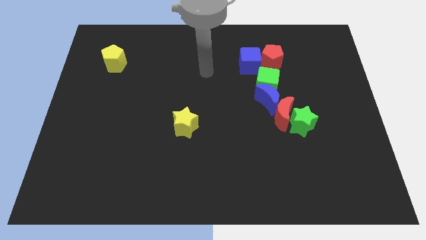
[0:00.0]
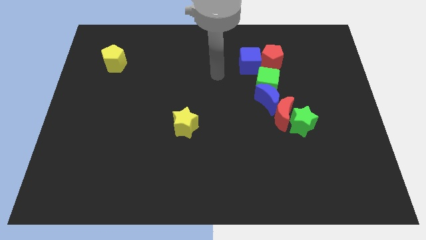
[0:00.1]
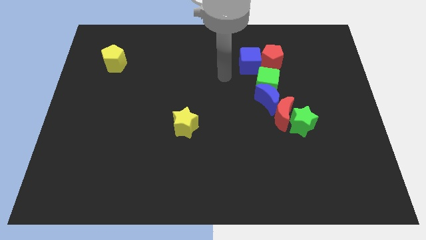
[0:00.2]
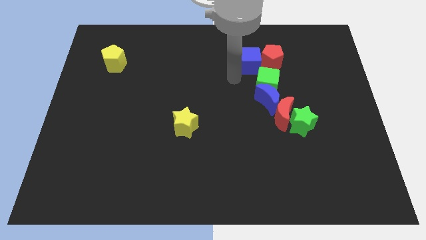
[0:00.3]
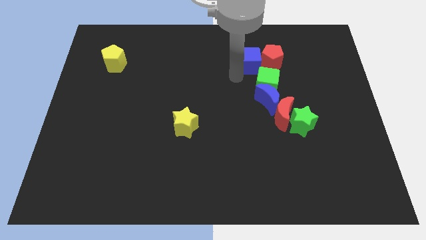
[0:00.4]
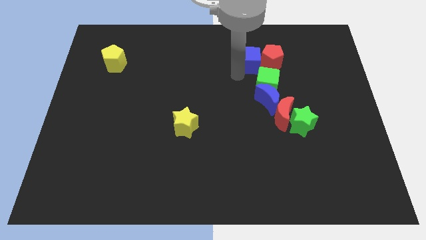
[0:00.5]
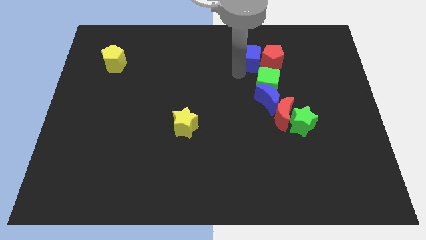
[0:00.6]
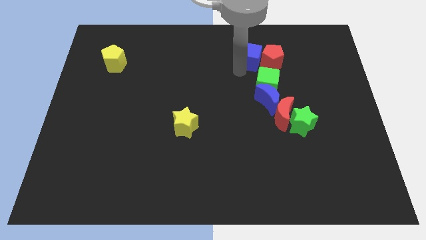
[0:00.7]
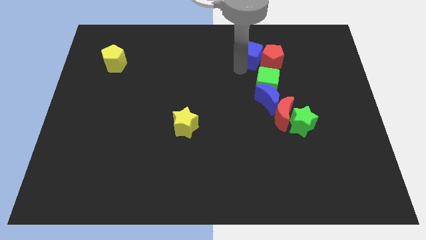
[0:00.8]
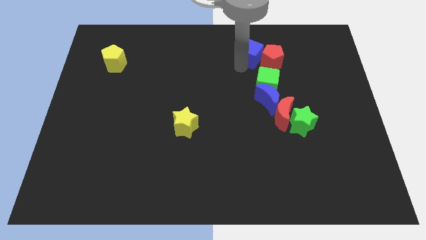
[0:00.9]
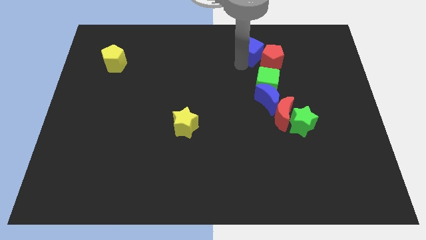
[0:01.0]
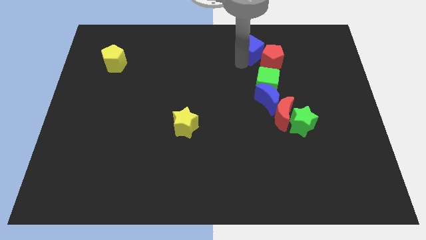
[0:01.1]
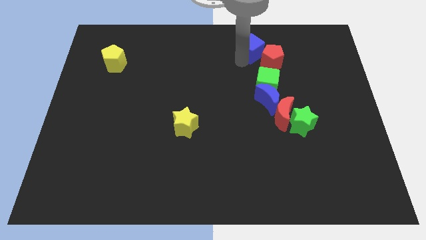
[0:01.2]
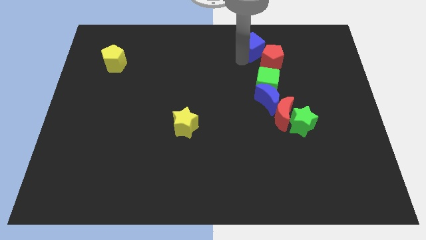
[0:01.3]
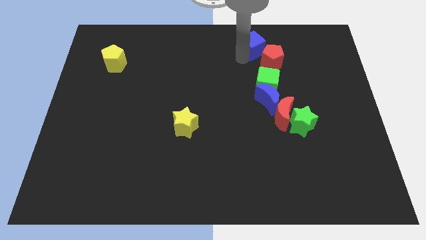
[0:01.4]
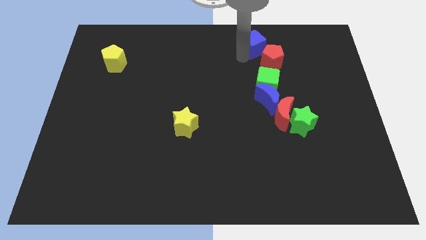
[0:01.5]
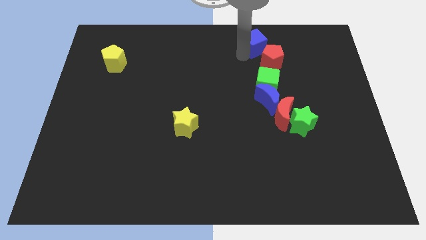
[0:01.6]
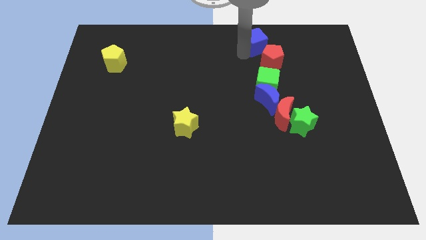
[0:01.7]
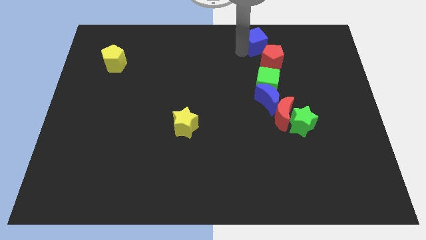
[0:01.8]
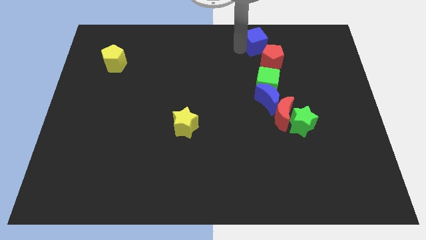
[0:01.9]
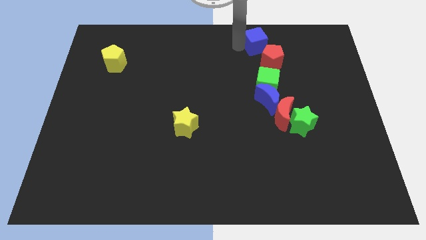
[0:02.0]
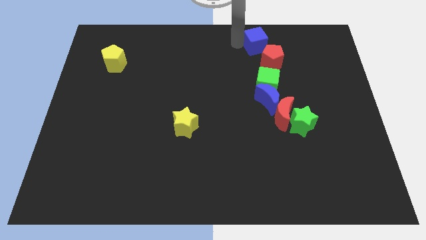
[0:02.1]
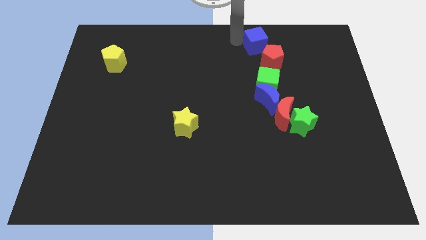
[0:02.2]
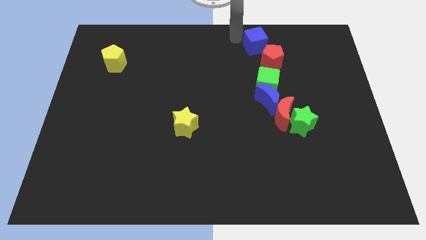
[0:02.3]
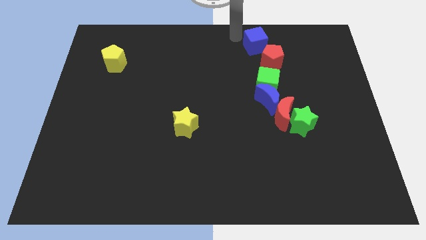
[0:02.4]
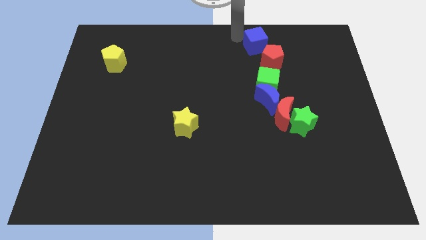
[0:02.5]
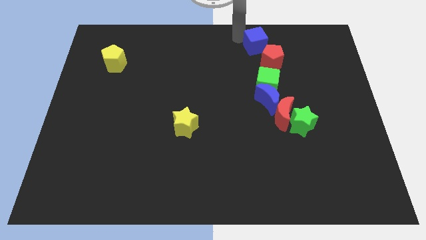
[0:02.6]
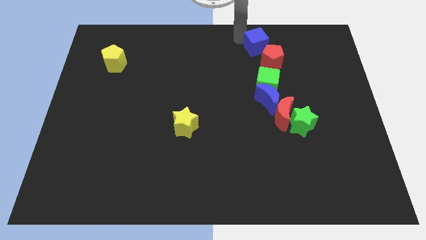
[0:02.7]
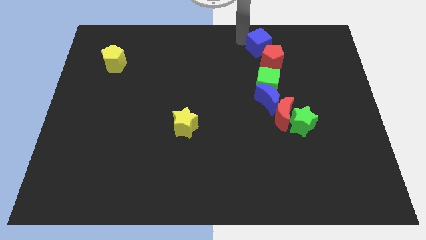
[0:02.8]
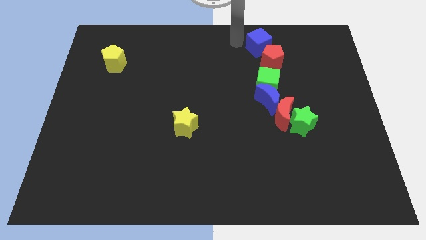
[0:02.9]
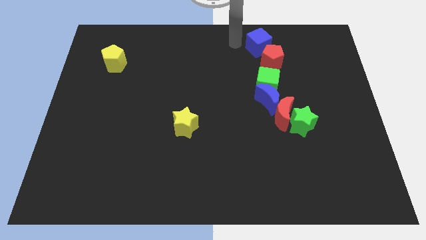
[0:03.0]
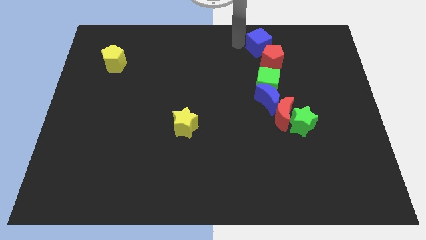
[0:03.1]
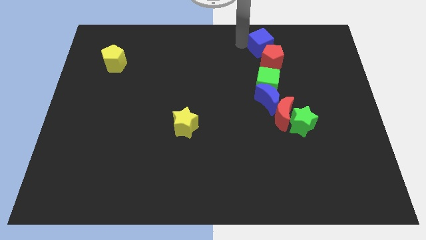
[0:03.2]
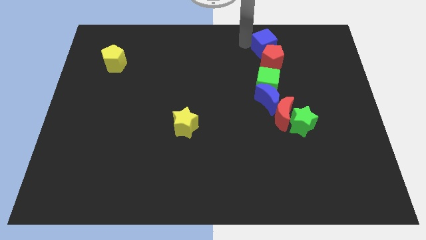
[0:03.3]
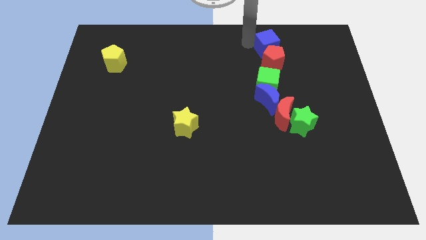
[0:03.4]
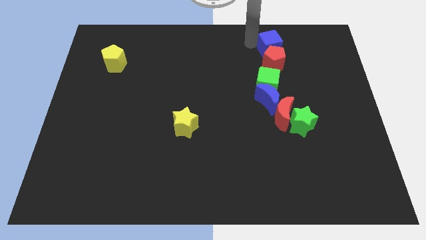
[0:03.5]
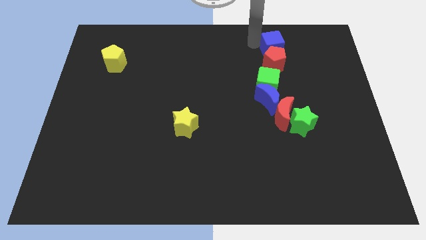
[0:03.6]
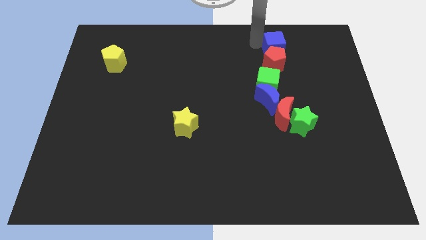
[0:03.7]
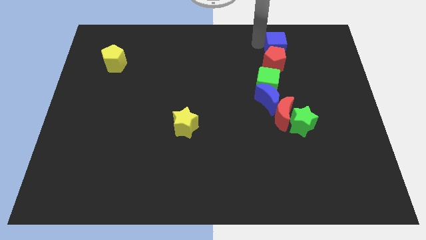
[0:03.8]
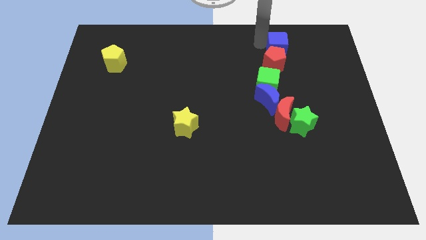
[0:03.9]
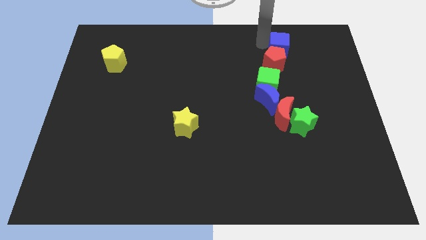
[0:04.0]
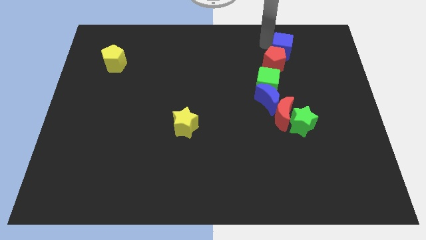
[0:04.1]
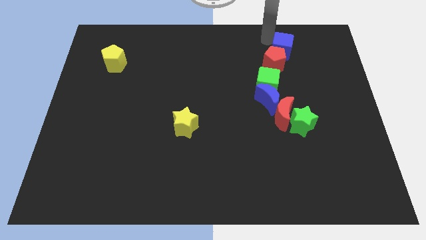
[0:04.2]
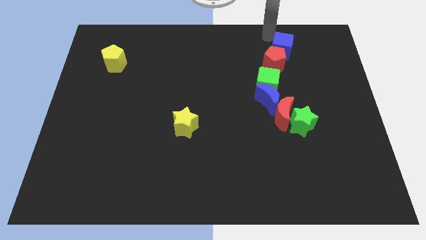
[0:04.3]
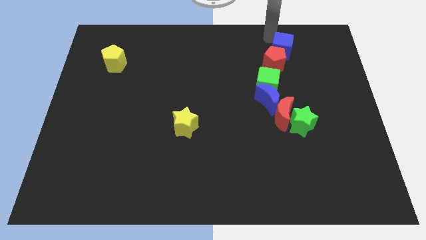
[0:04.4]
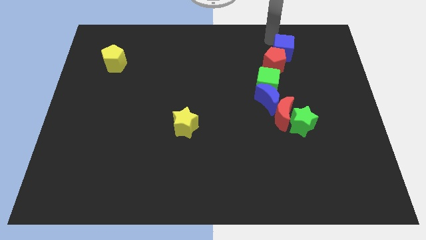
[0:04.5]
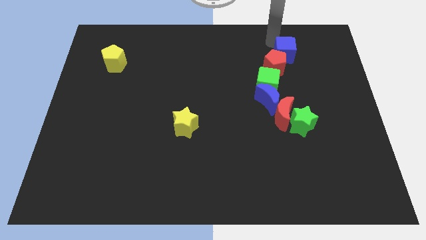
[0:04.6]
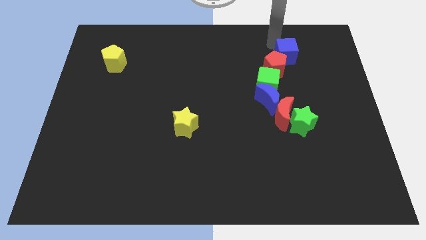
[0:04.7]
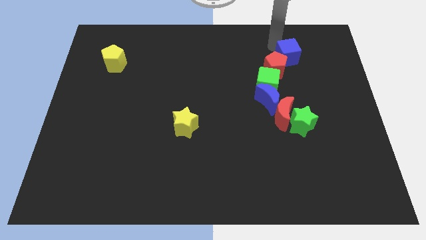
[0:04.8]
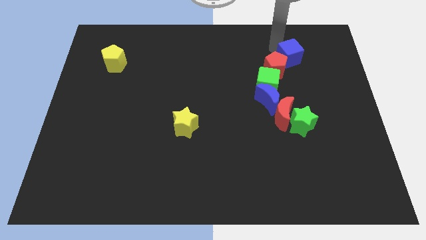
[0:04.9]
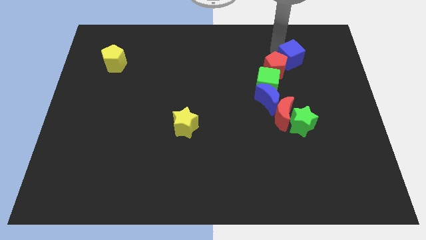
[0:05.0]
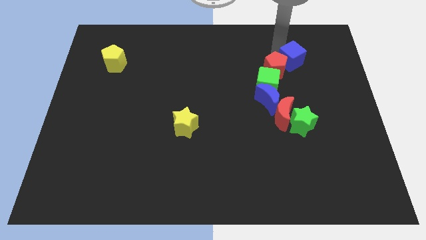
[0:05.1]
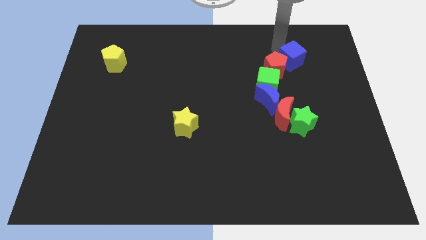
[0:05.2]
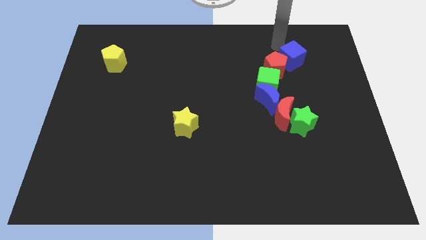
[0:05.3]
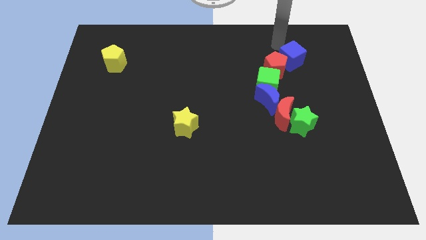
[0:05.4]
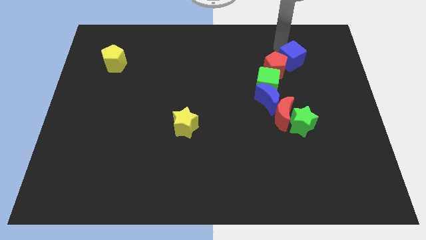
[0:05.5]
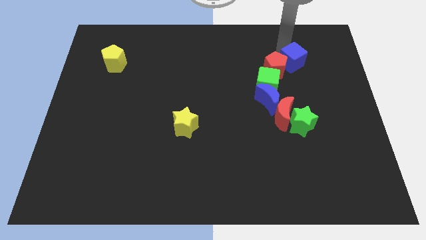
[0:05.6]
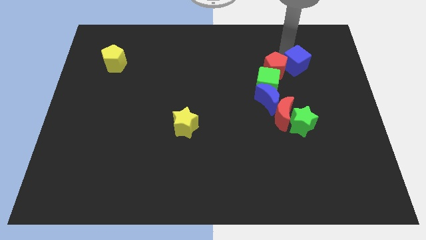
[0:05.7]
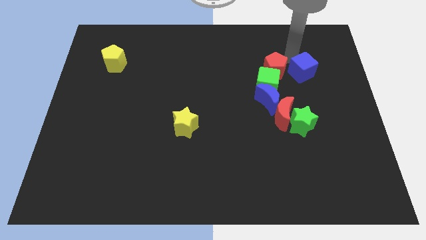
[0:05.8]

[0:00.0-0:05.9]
slide the blue cube to the right side of the green cube

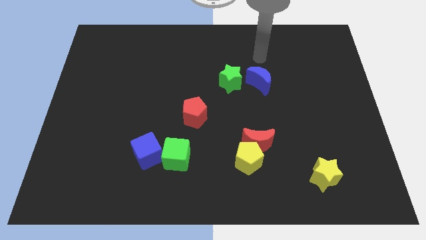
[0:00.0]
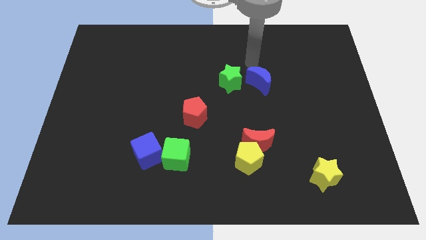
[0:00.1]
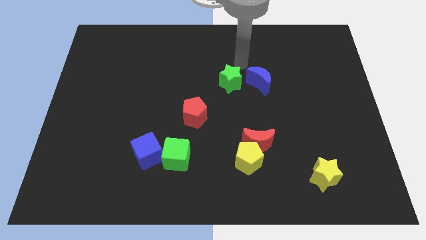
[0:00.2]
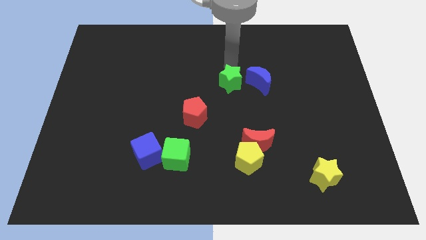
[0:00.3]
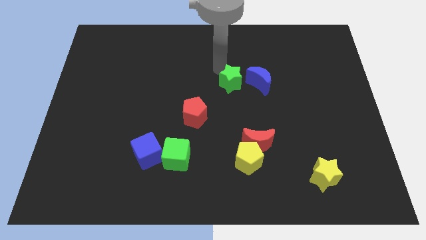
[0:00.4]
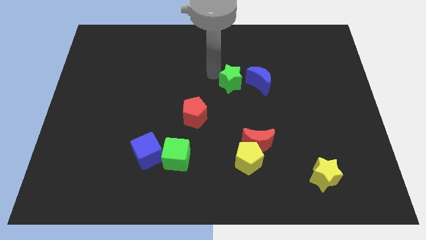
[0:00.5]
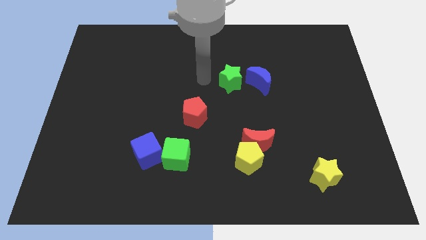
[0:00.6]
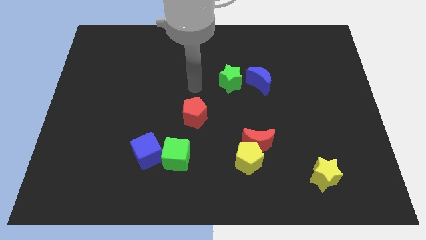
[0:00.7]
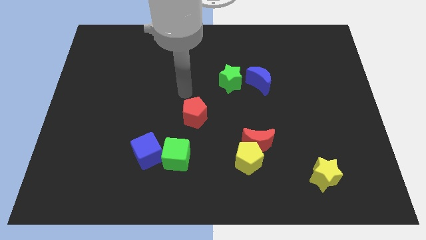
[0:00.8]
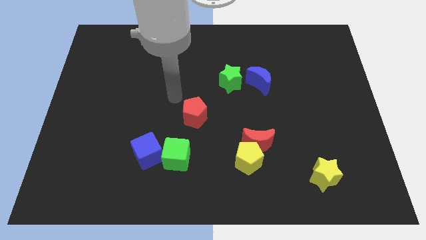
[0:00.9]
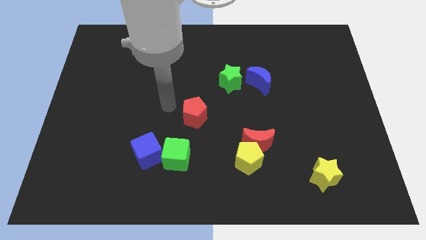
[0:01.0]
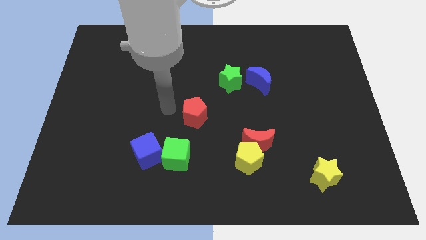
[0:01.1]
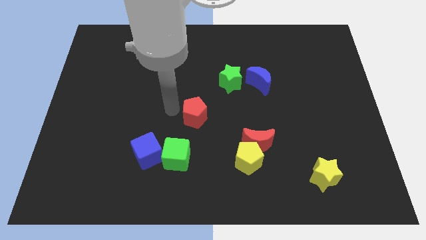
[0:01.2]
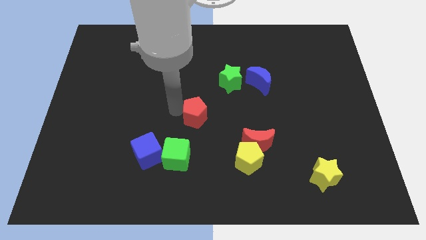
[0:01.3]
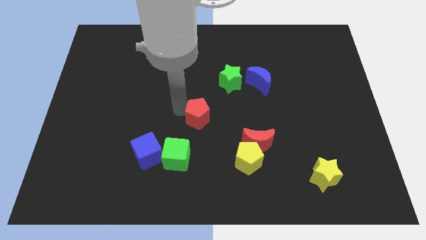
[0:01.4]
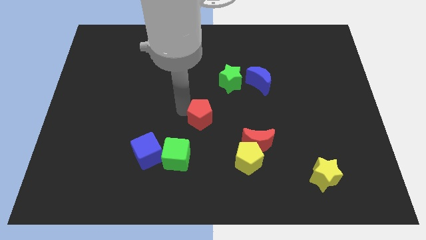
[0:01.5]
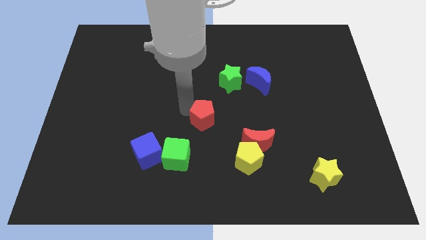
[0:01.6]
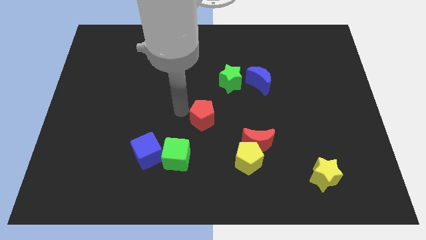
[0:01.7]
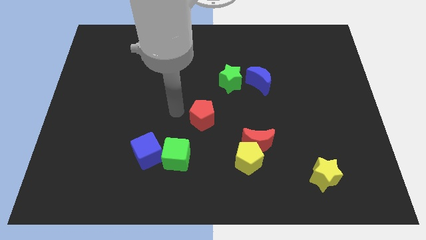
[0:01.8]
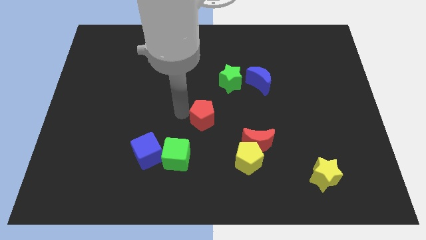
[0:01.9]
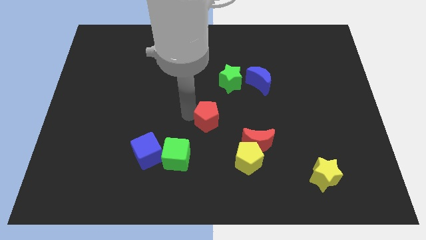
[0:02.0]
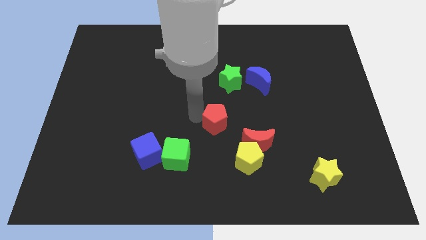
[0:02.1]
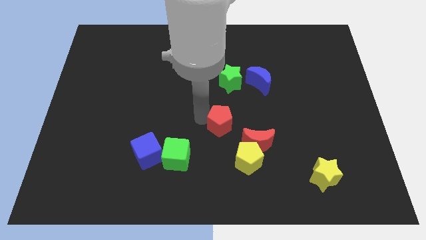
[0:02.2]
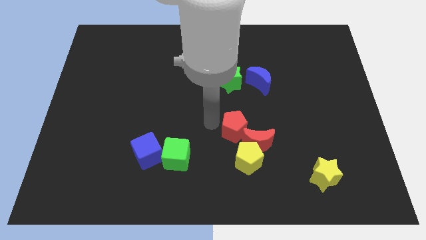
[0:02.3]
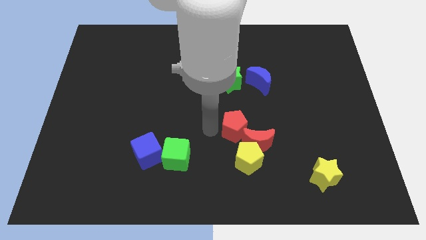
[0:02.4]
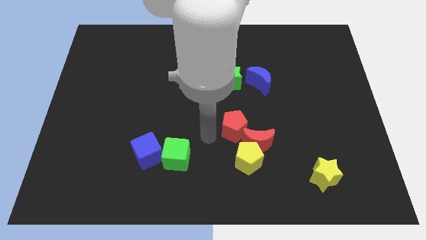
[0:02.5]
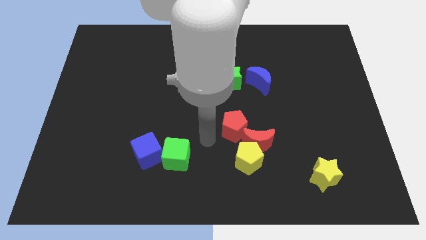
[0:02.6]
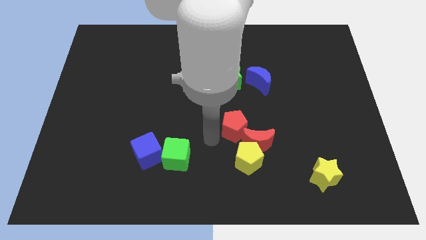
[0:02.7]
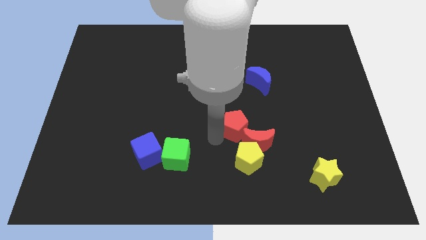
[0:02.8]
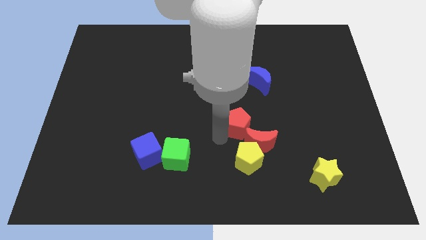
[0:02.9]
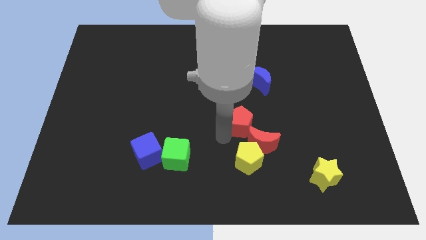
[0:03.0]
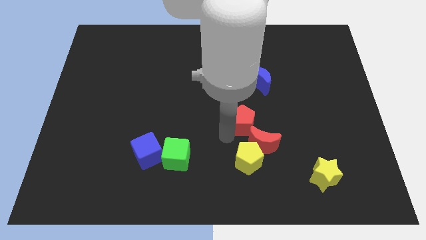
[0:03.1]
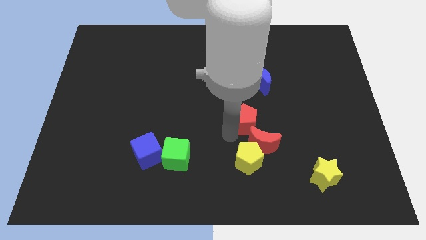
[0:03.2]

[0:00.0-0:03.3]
put the red pentagon to the bottom side of the blue moon
